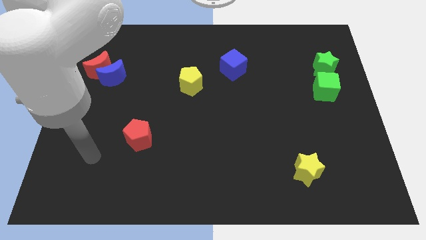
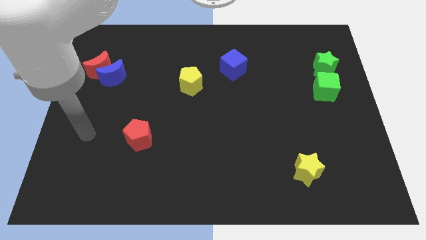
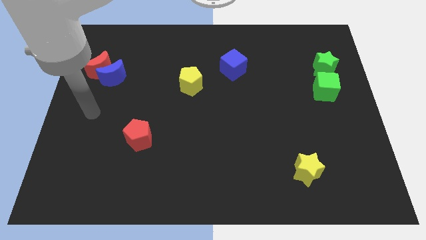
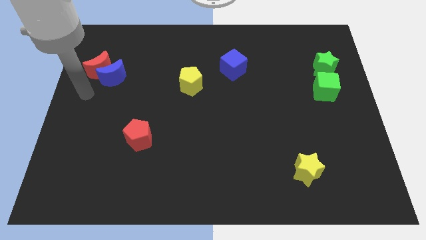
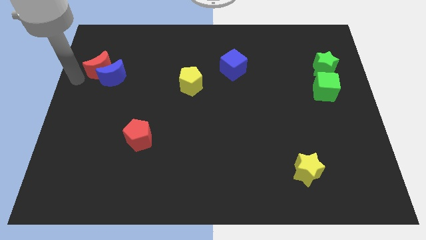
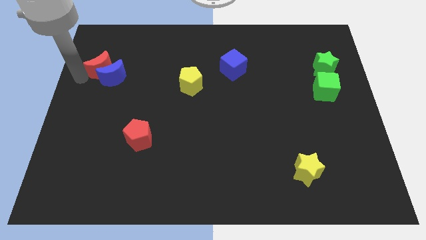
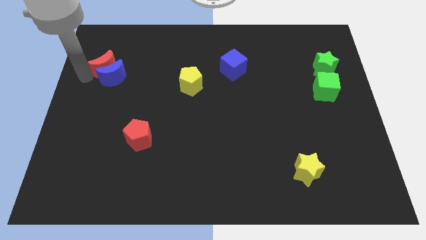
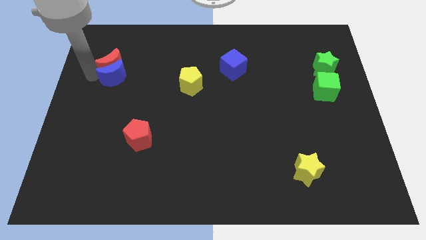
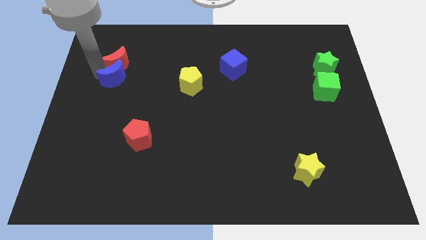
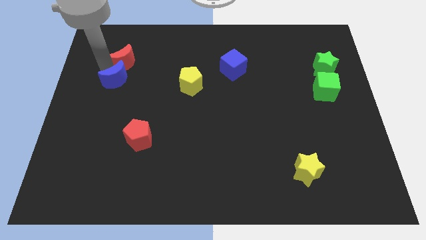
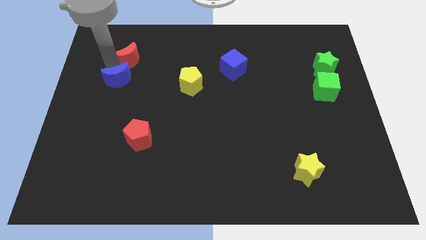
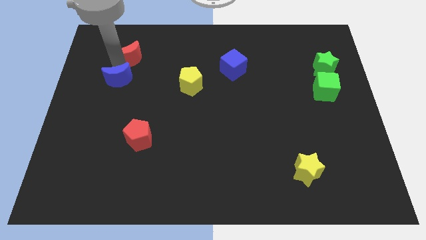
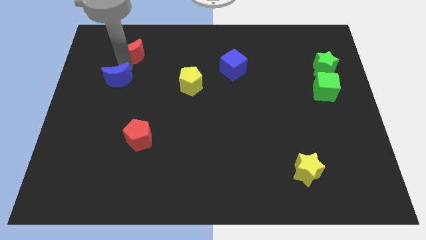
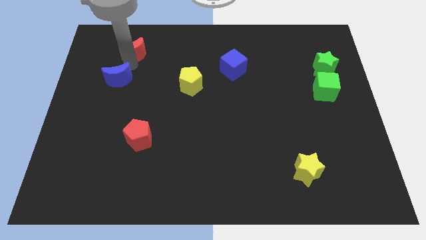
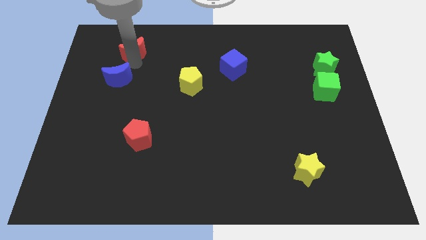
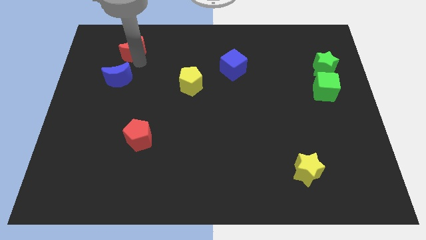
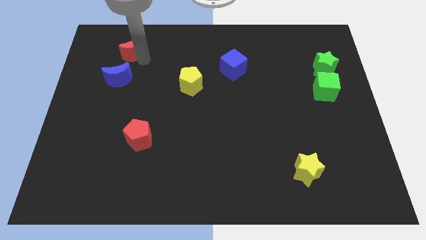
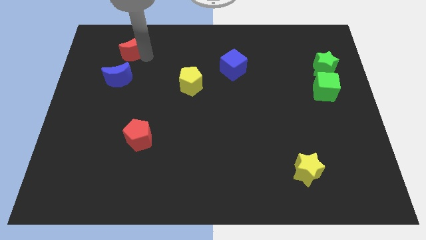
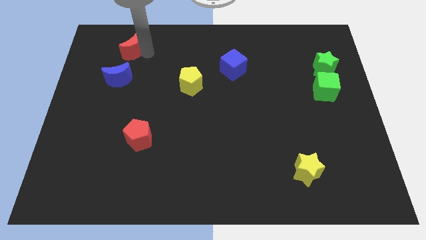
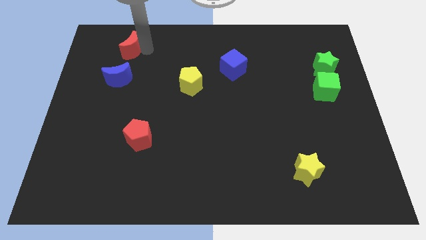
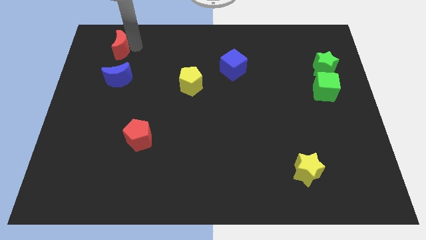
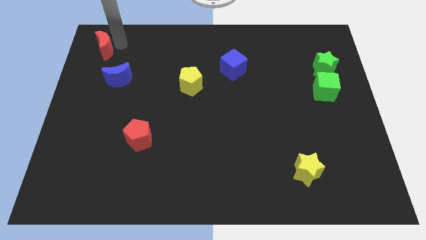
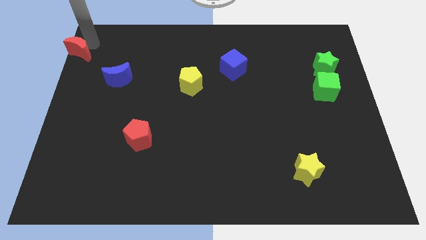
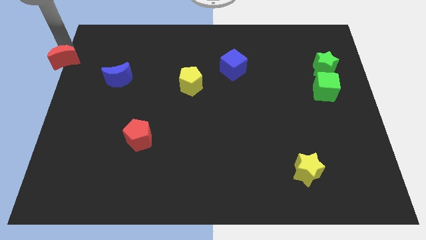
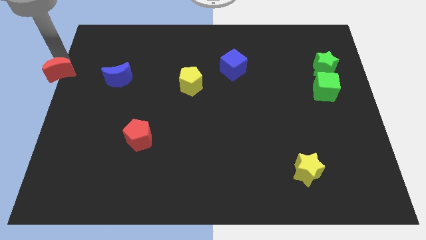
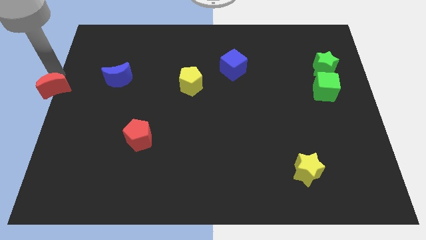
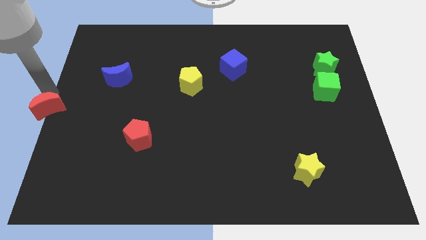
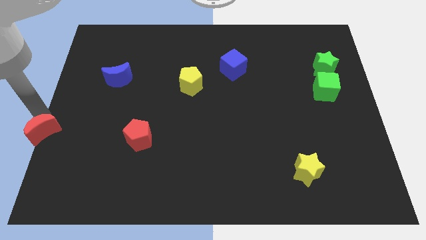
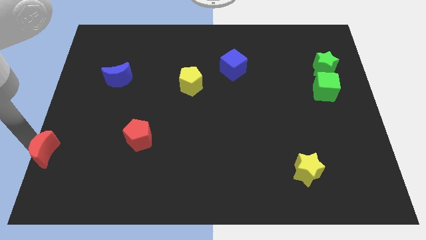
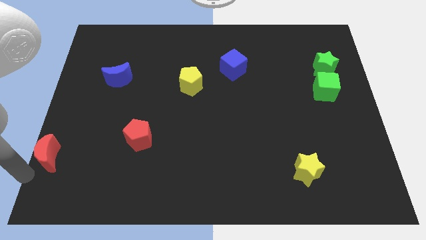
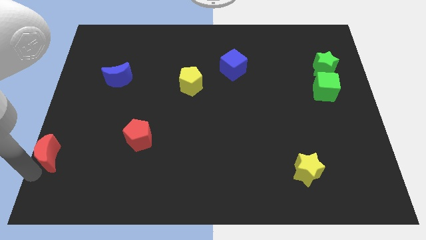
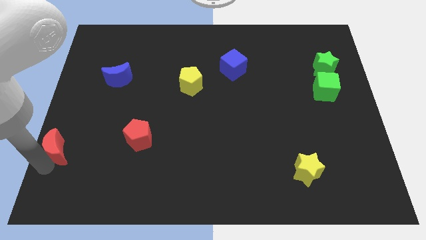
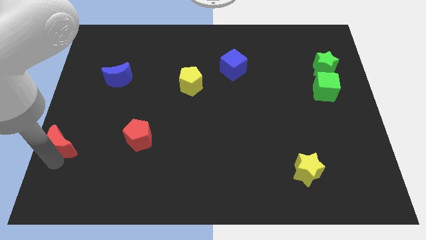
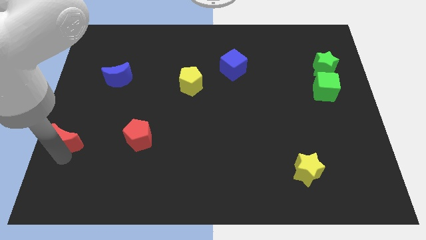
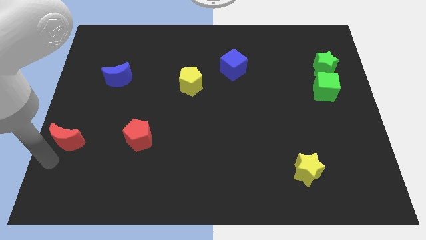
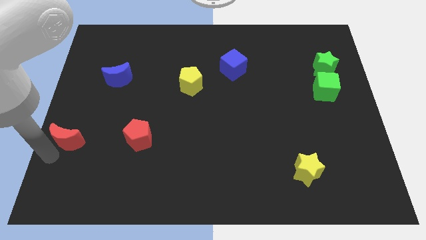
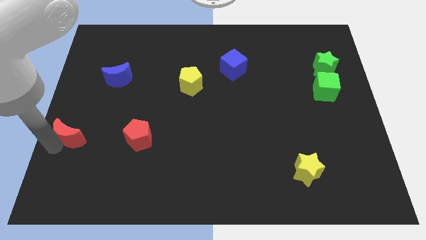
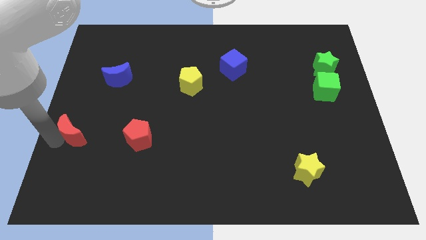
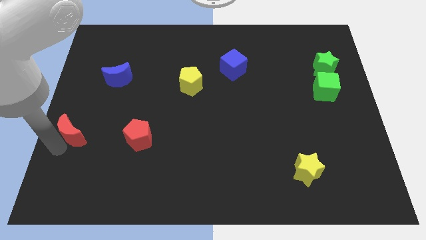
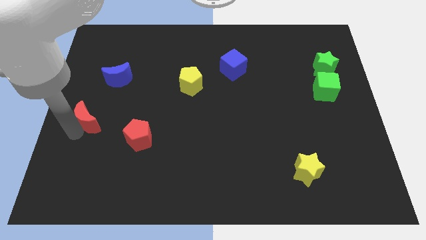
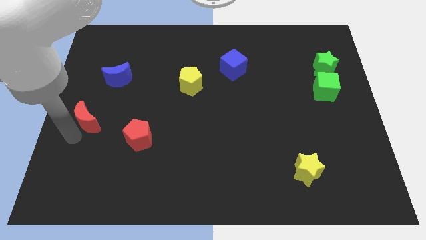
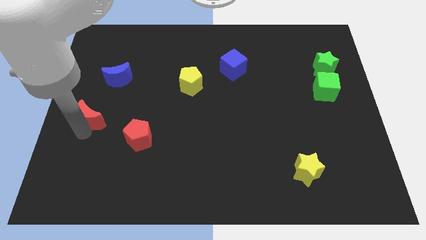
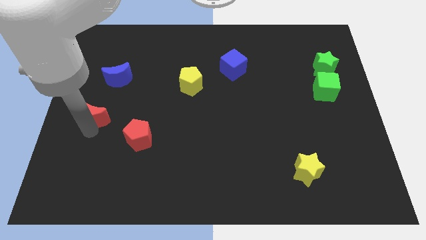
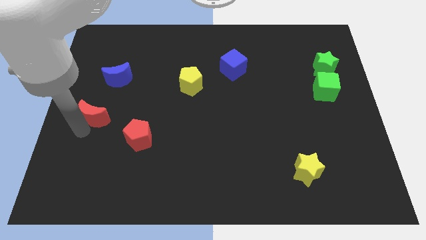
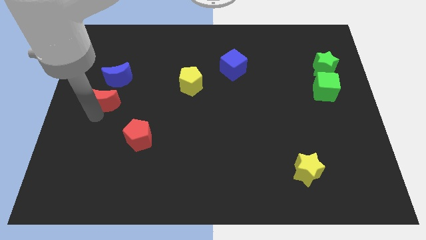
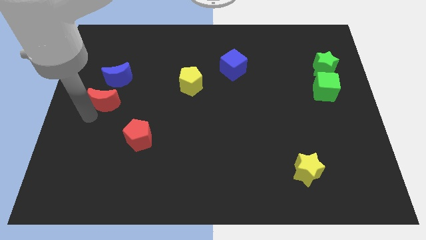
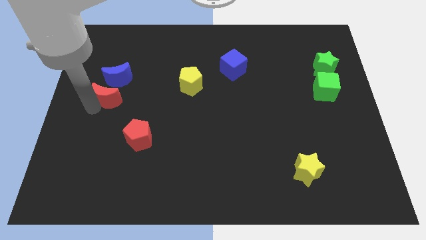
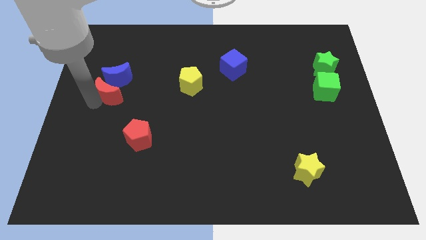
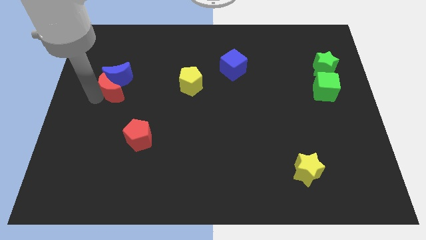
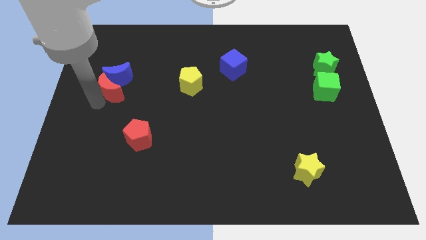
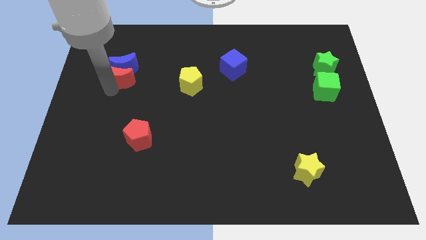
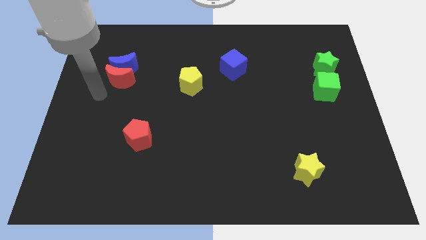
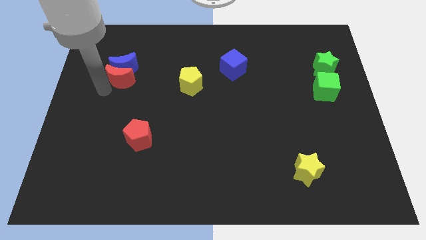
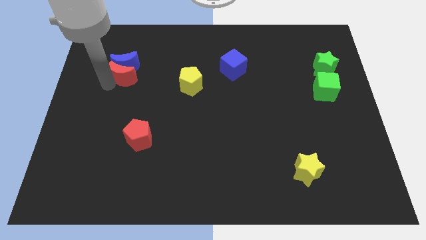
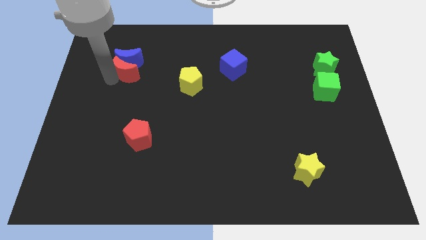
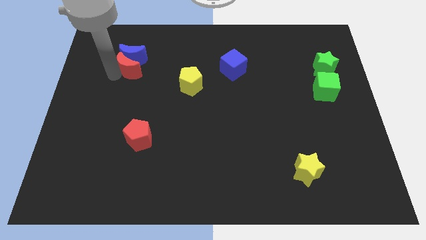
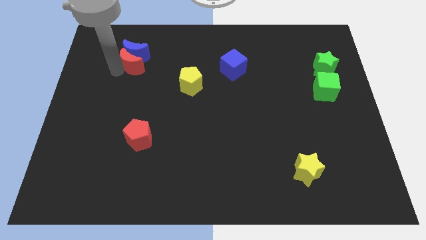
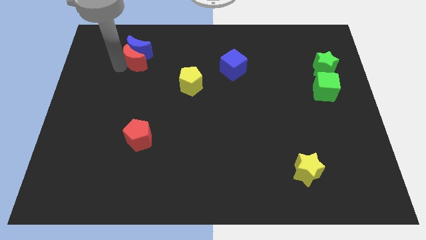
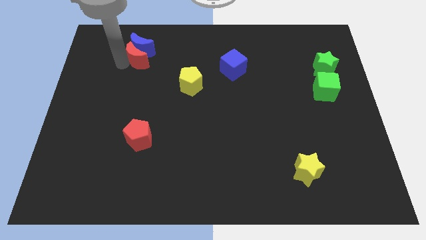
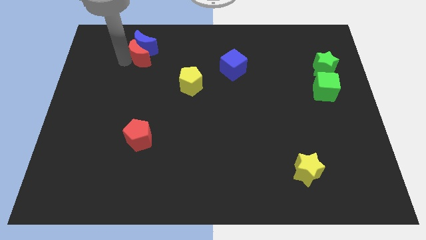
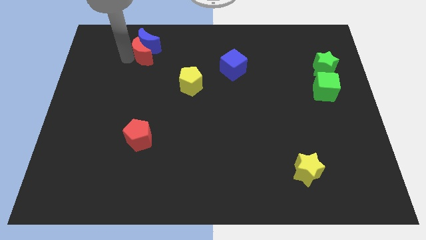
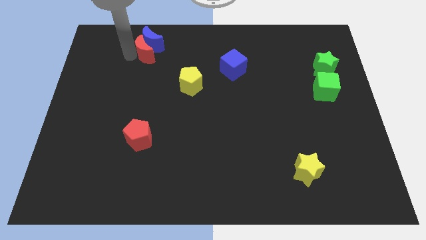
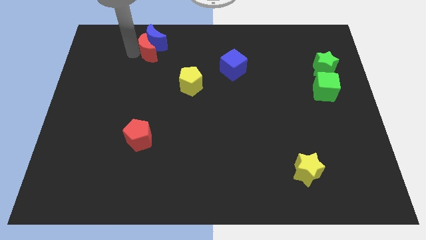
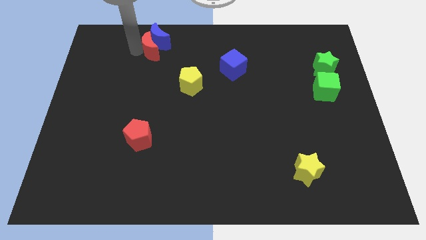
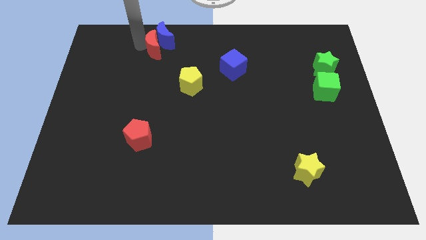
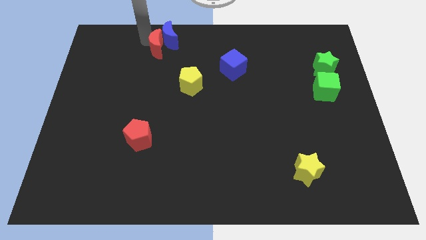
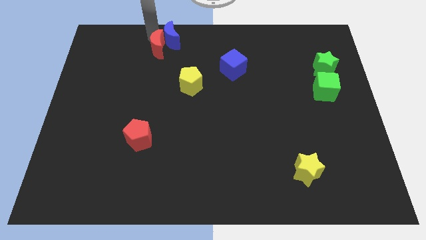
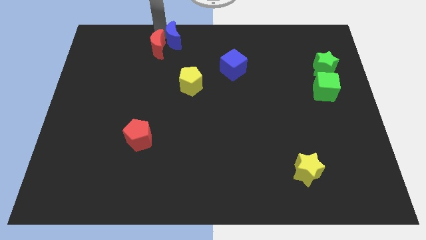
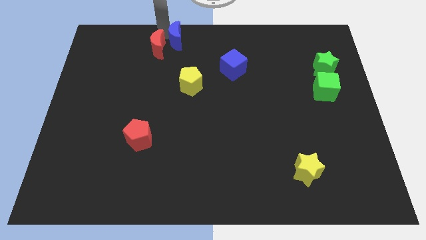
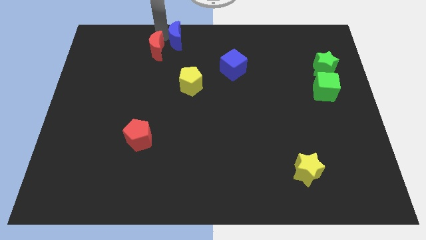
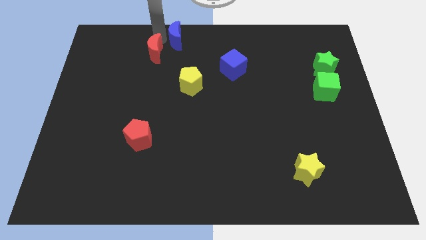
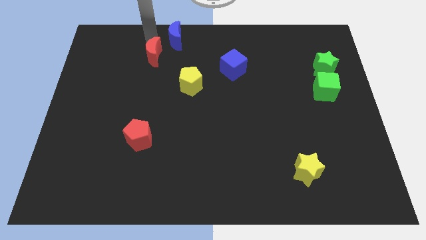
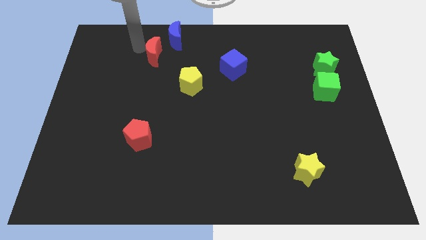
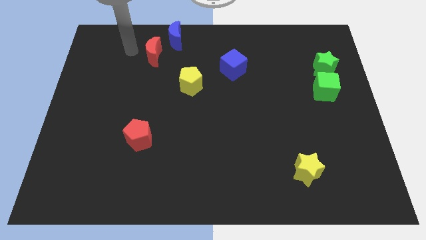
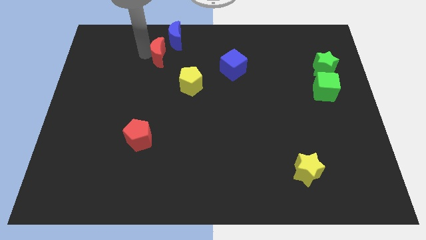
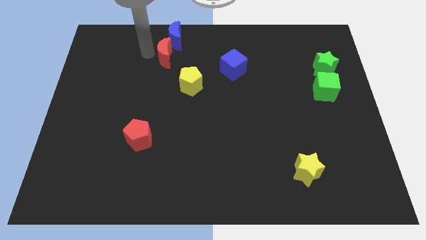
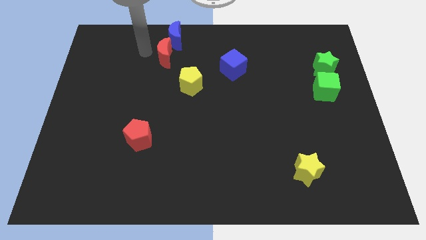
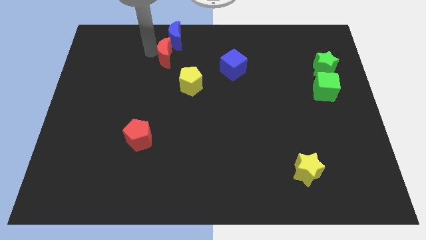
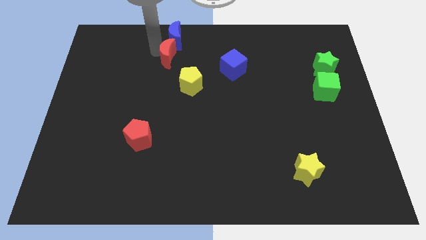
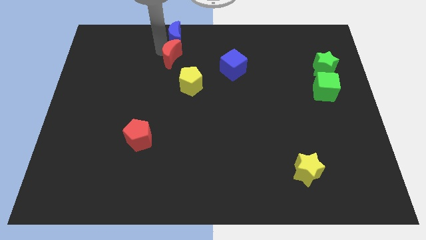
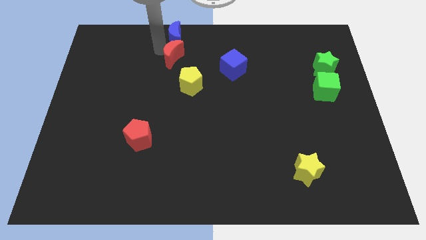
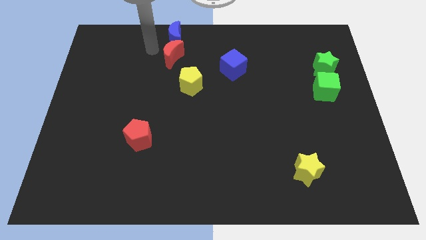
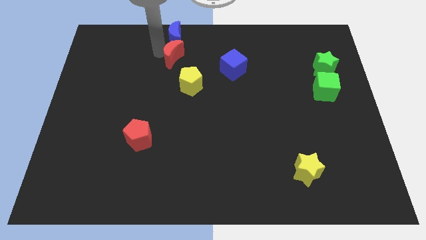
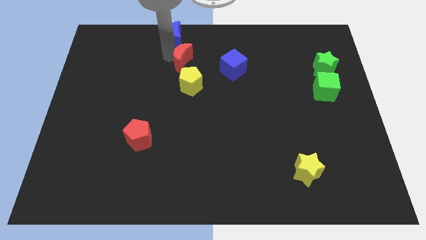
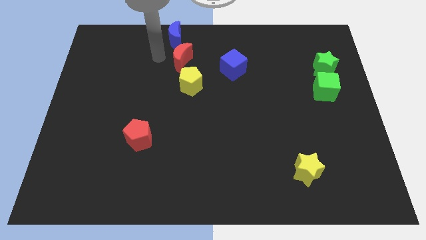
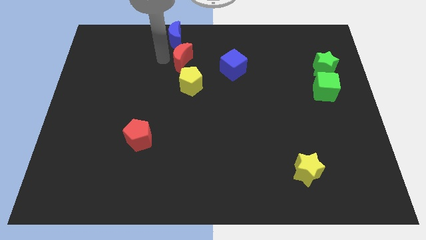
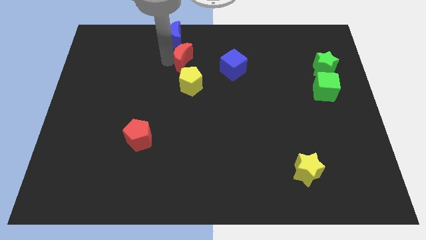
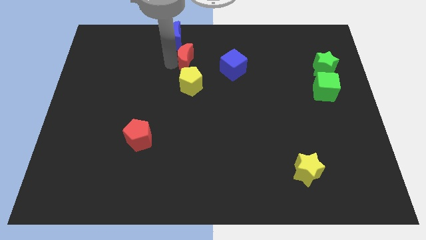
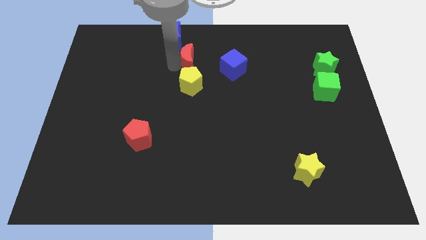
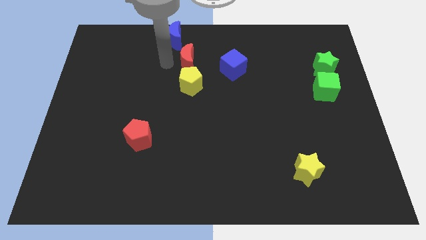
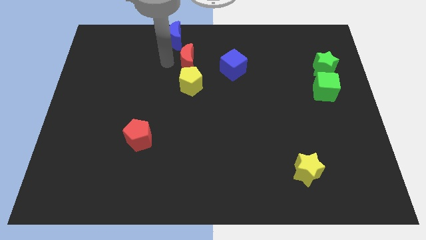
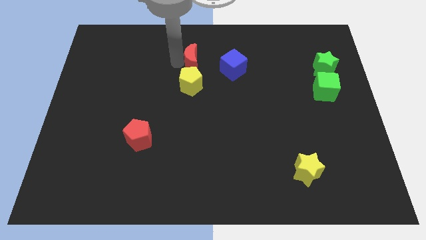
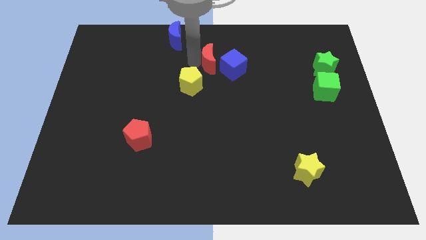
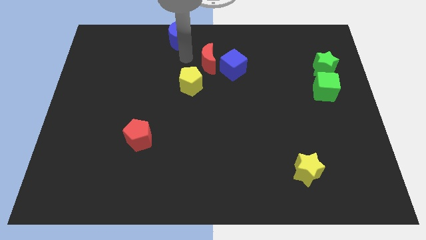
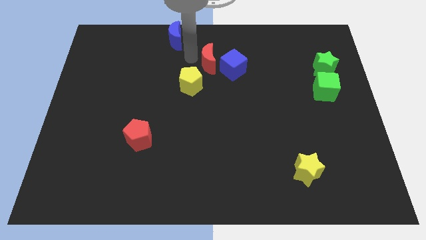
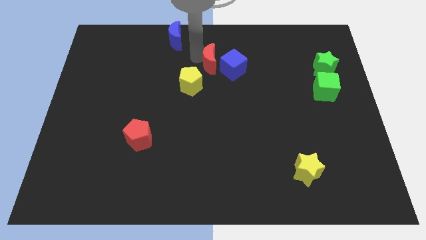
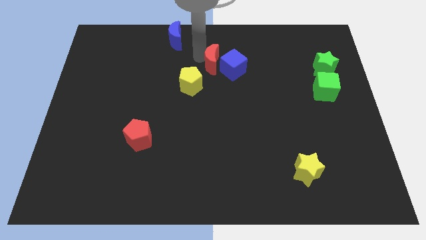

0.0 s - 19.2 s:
put the red moon close to the blue cube
